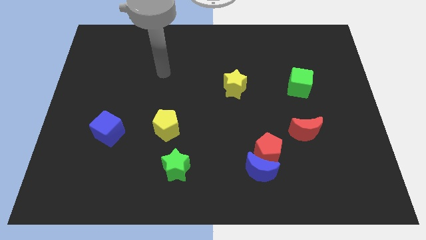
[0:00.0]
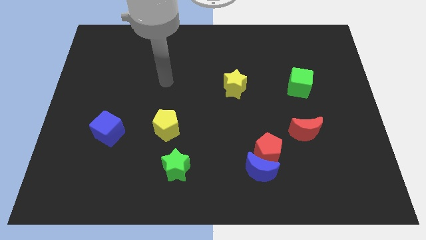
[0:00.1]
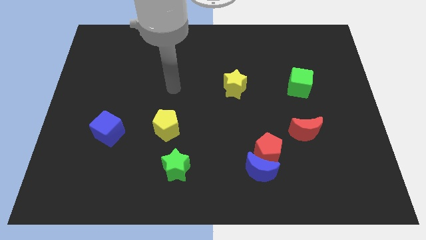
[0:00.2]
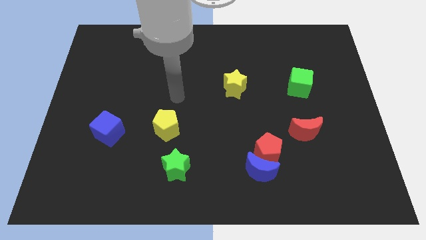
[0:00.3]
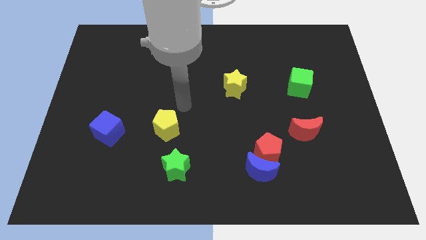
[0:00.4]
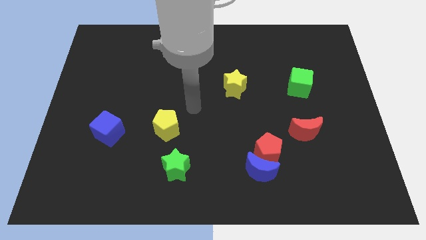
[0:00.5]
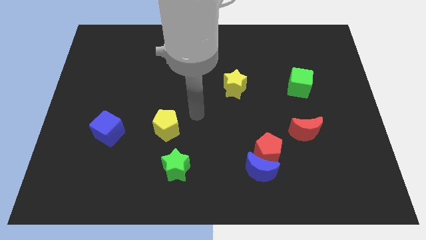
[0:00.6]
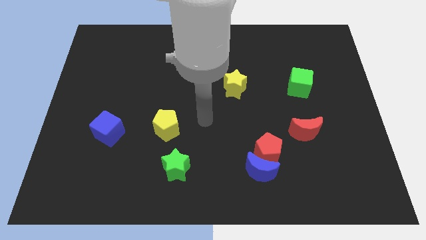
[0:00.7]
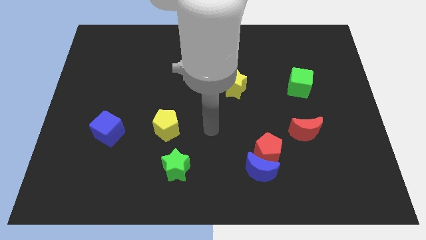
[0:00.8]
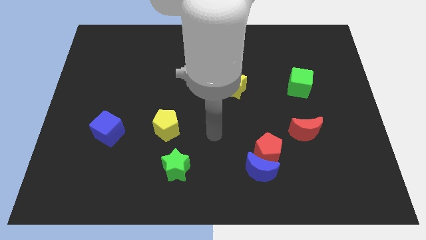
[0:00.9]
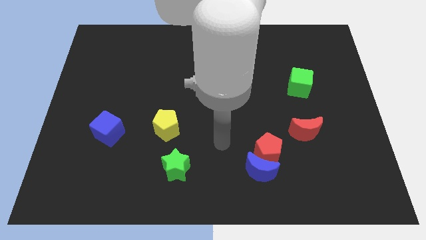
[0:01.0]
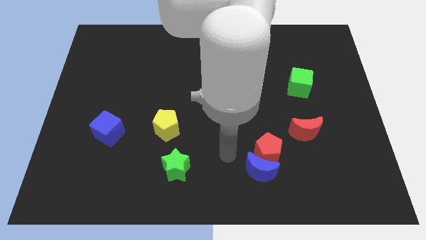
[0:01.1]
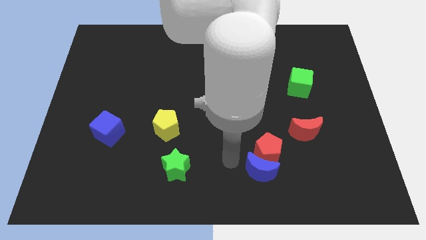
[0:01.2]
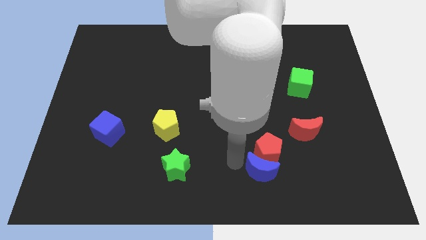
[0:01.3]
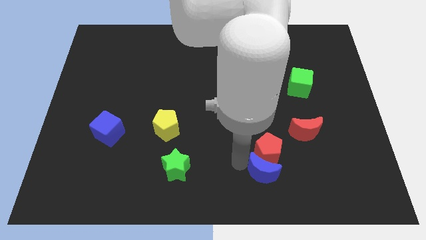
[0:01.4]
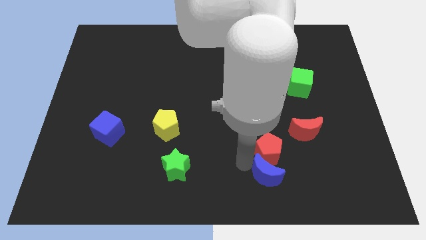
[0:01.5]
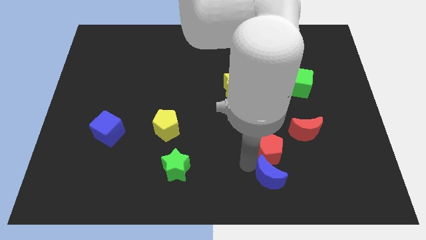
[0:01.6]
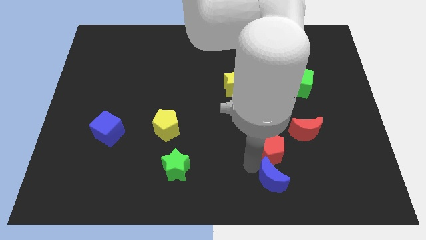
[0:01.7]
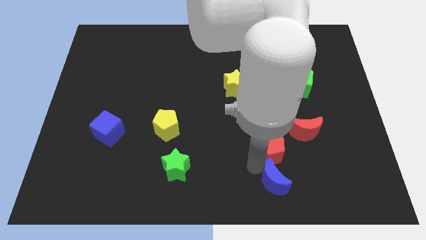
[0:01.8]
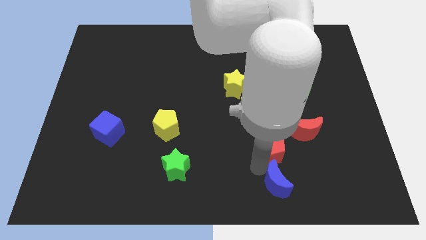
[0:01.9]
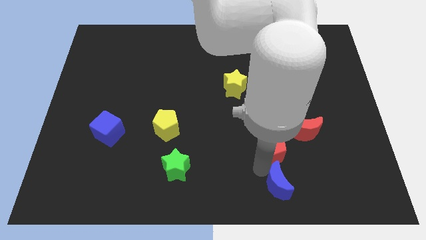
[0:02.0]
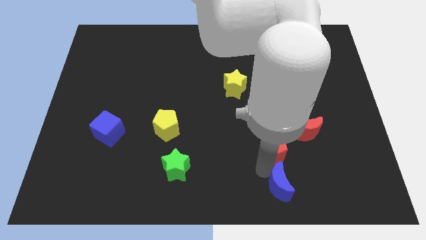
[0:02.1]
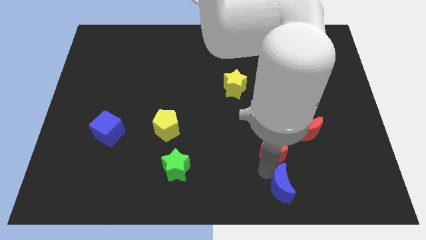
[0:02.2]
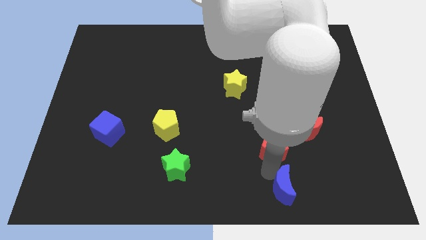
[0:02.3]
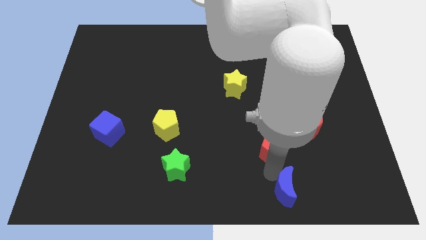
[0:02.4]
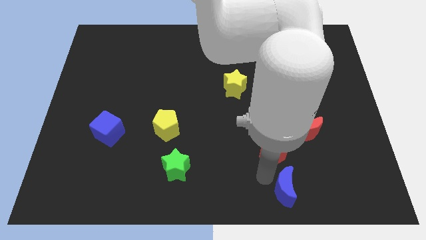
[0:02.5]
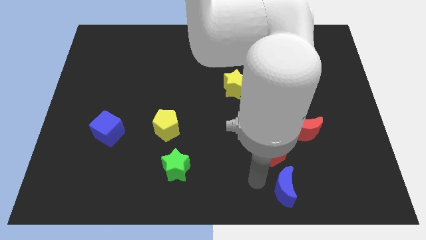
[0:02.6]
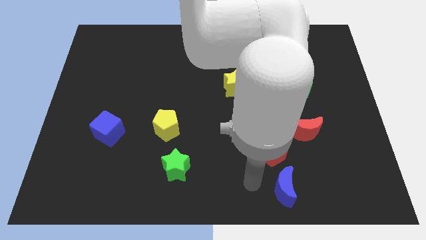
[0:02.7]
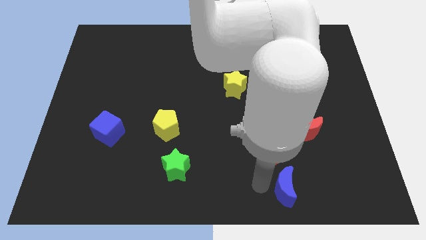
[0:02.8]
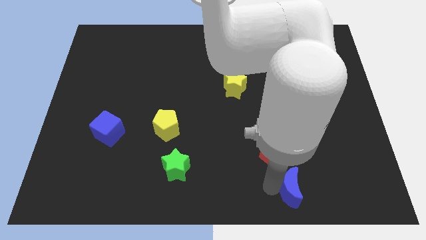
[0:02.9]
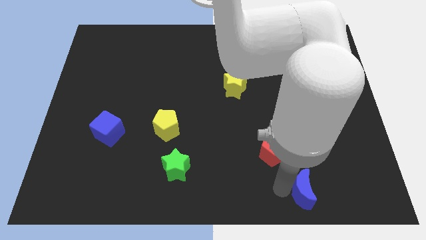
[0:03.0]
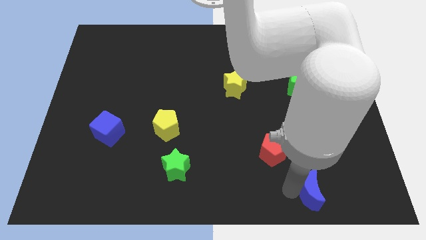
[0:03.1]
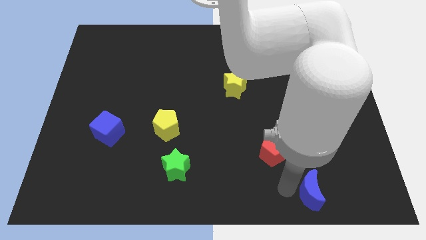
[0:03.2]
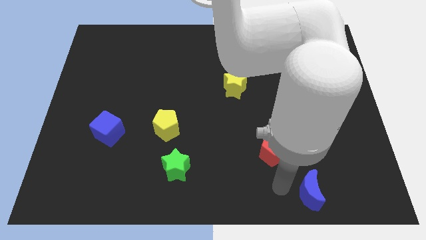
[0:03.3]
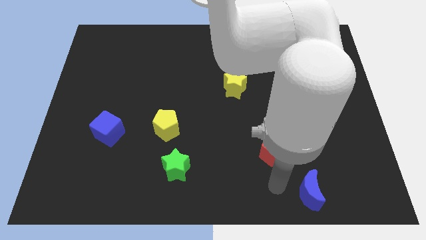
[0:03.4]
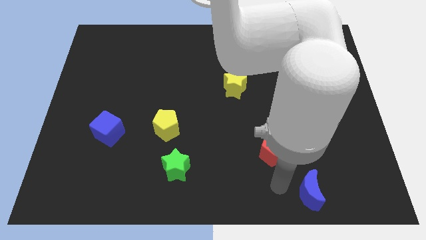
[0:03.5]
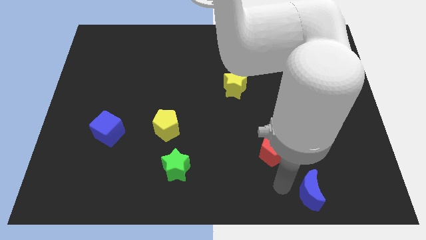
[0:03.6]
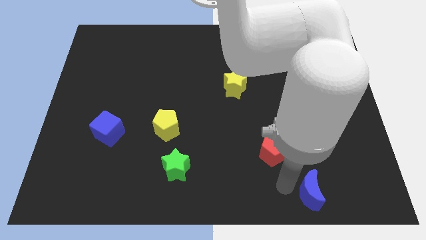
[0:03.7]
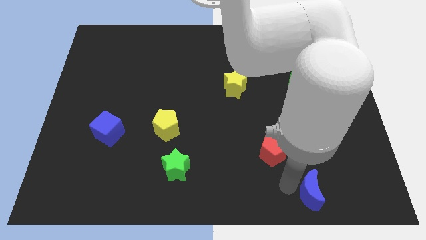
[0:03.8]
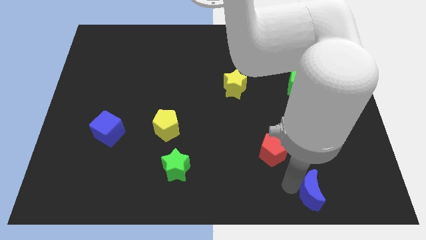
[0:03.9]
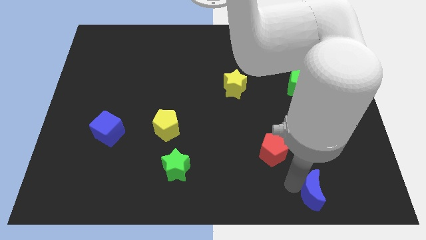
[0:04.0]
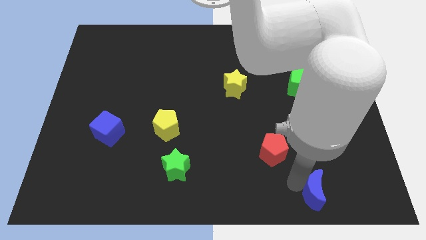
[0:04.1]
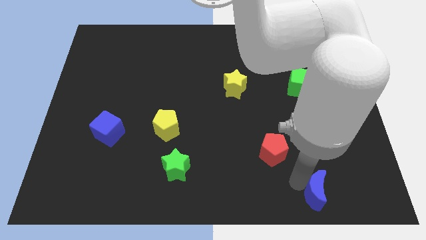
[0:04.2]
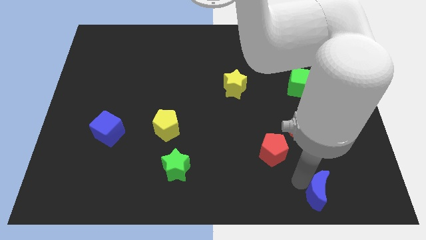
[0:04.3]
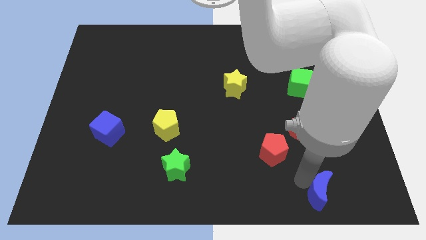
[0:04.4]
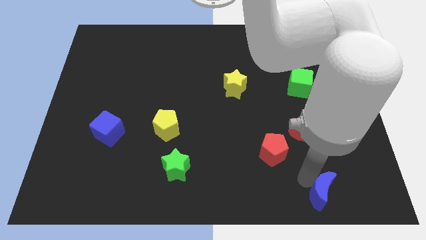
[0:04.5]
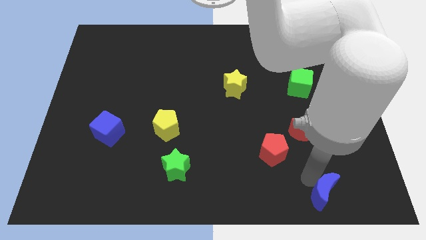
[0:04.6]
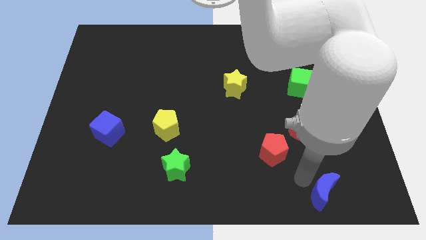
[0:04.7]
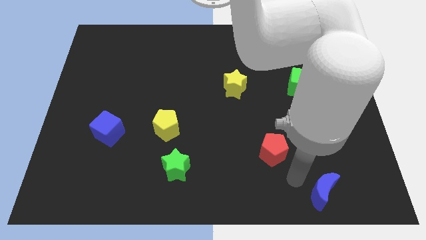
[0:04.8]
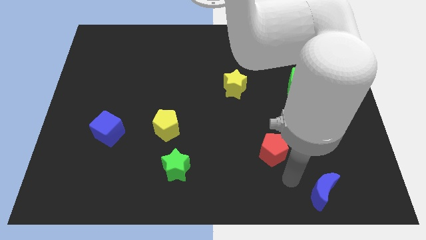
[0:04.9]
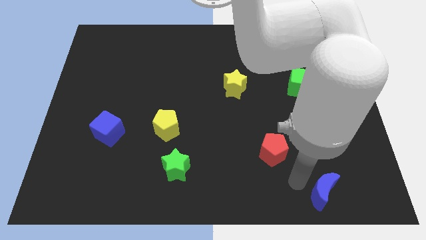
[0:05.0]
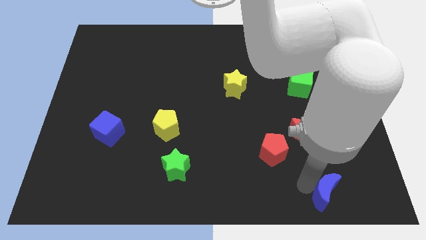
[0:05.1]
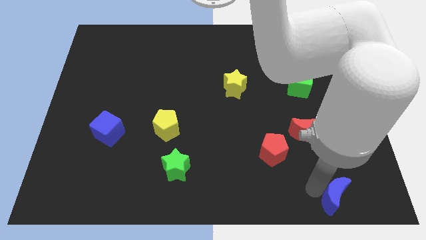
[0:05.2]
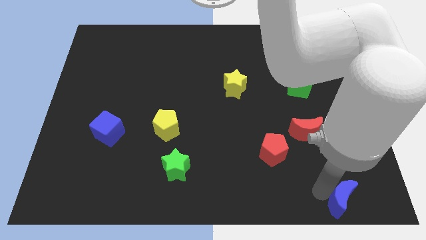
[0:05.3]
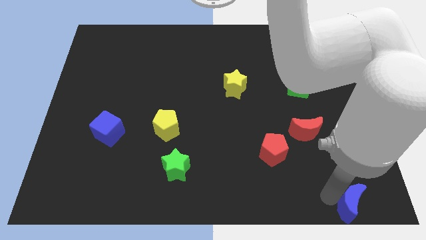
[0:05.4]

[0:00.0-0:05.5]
push the blue moon to the bottom right

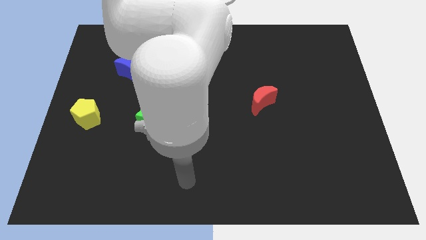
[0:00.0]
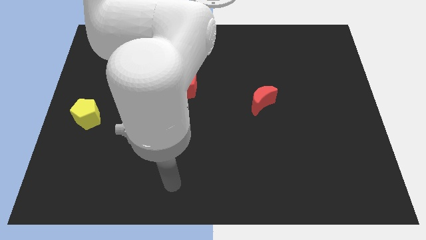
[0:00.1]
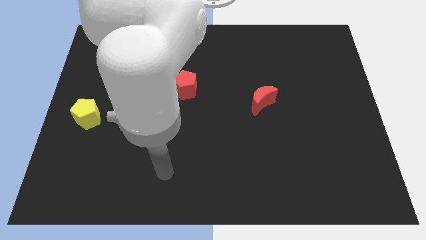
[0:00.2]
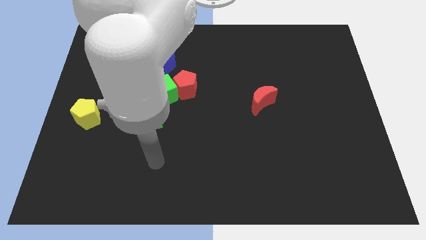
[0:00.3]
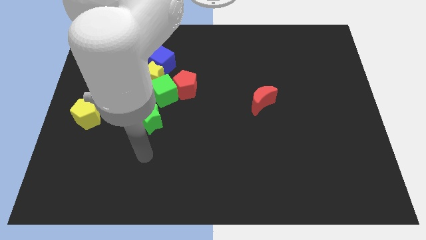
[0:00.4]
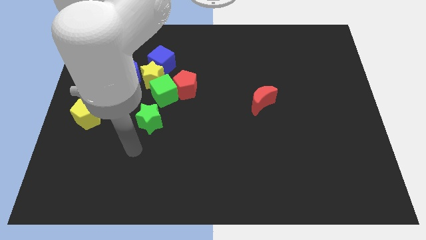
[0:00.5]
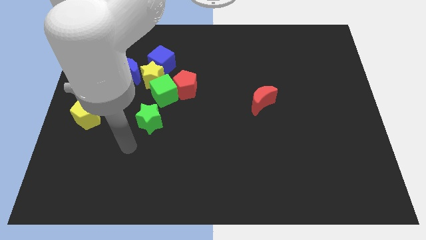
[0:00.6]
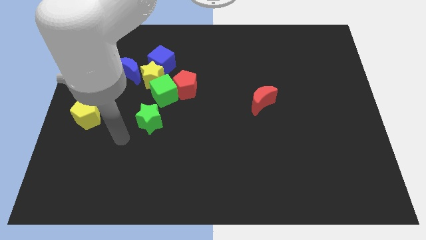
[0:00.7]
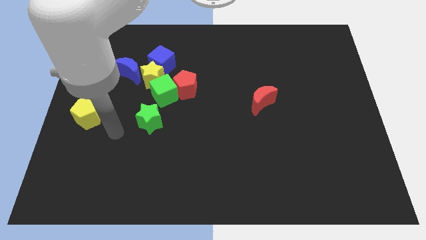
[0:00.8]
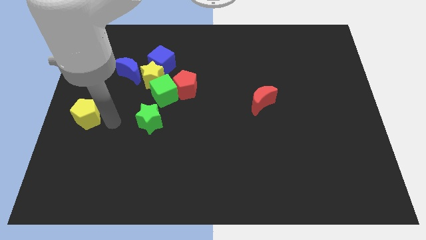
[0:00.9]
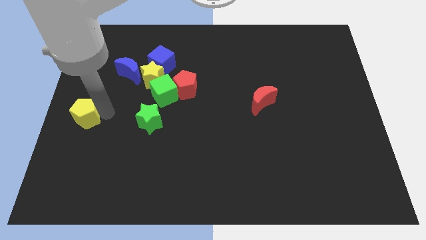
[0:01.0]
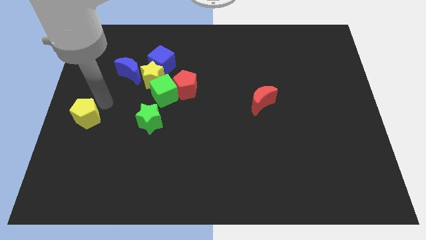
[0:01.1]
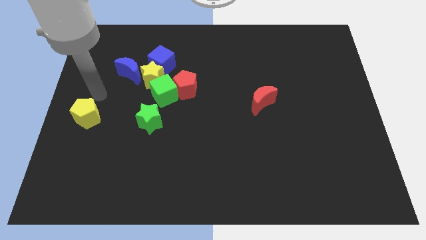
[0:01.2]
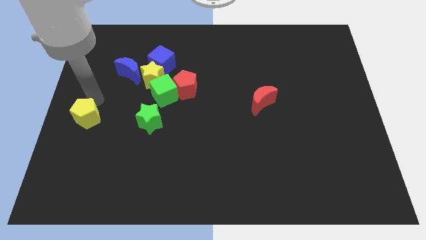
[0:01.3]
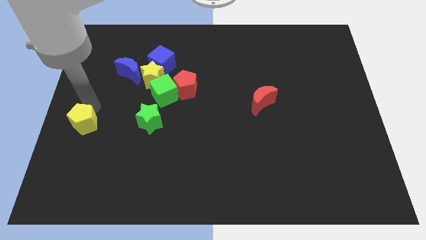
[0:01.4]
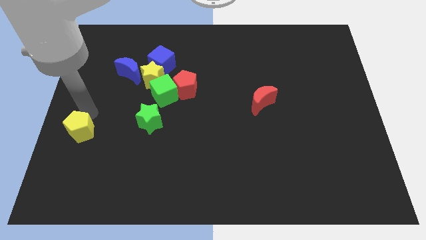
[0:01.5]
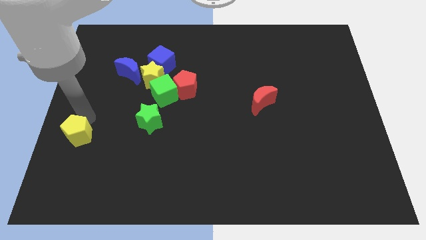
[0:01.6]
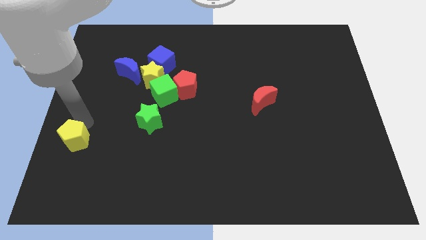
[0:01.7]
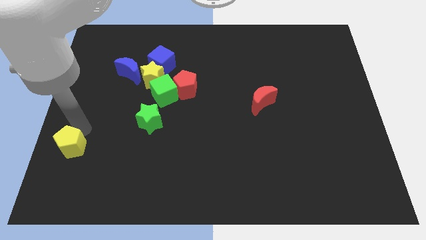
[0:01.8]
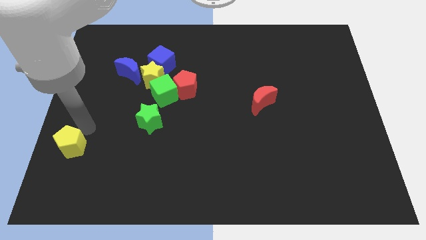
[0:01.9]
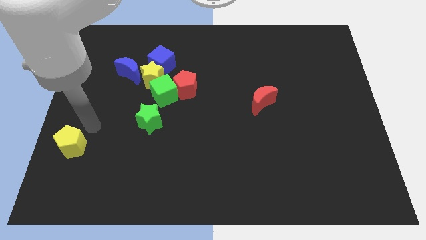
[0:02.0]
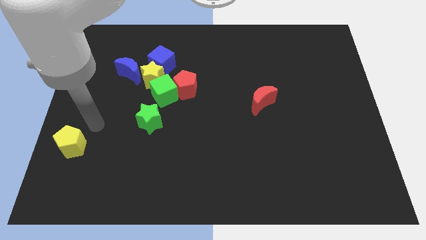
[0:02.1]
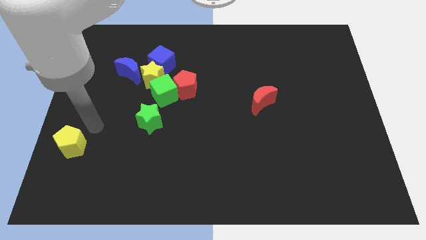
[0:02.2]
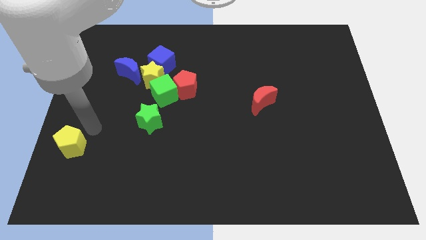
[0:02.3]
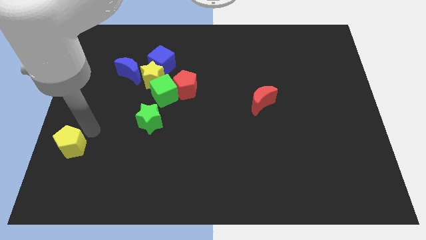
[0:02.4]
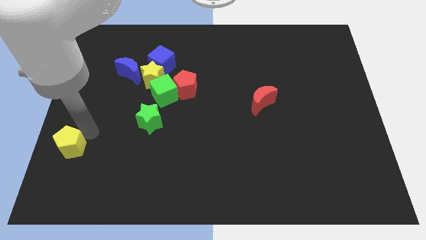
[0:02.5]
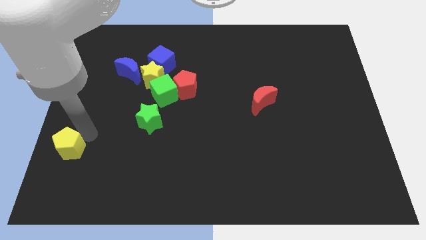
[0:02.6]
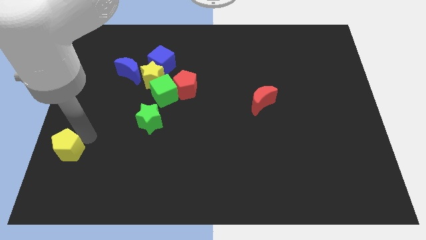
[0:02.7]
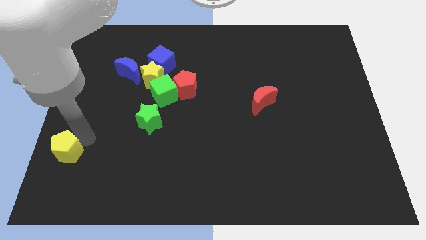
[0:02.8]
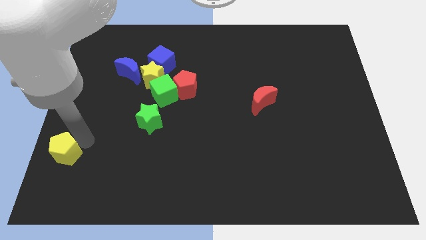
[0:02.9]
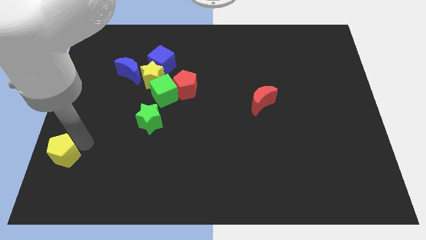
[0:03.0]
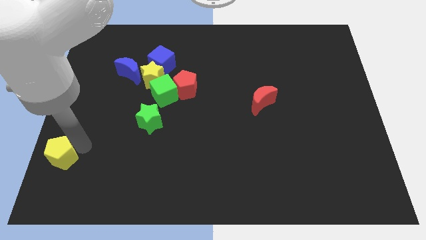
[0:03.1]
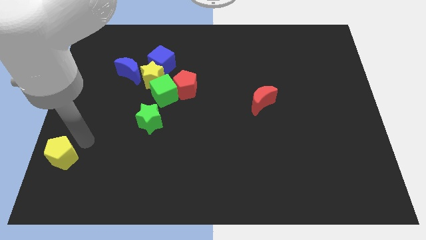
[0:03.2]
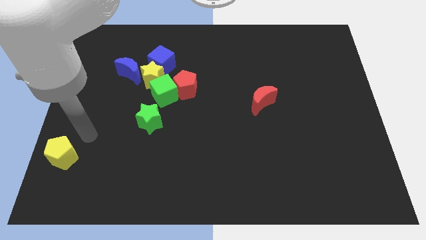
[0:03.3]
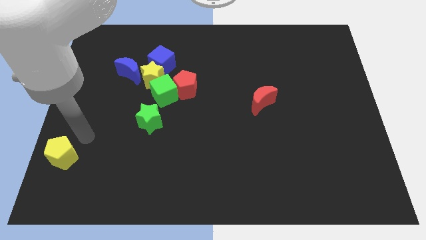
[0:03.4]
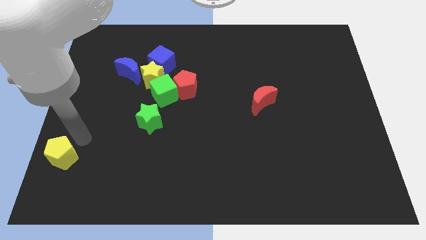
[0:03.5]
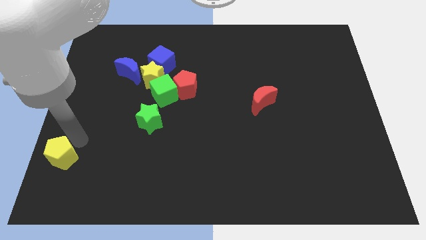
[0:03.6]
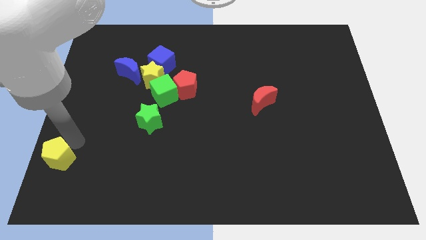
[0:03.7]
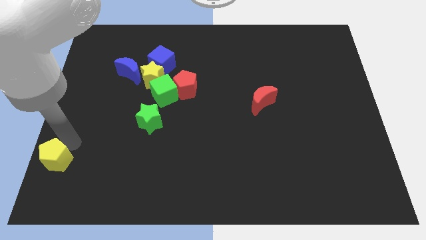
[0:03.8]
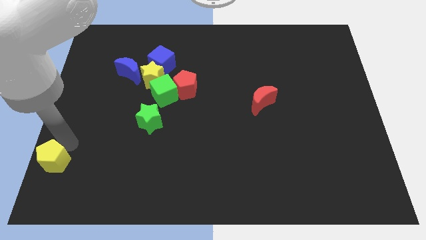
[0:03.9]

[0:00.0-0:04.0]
put the yellow pentagon to the bottom left of the board
